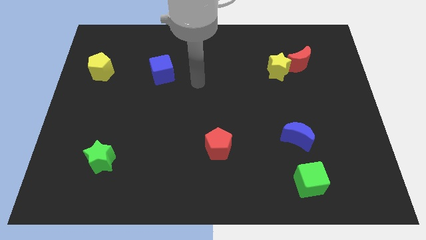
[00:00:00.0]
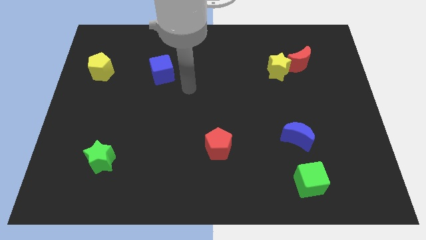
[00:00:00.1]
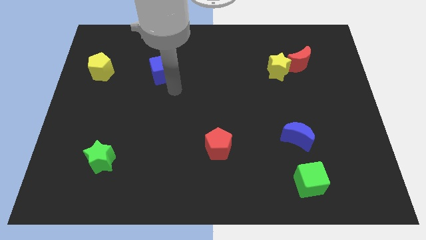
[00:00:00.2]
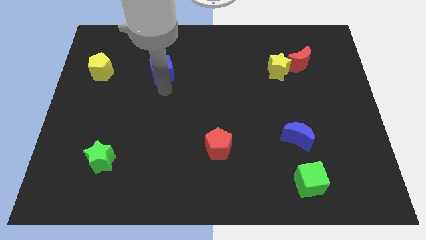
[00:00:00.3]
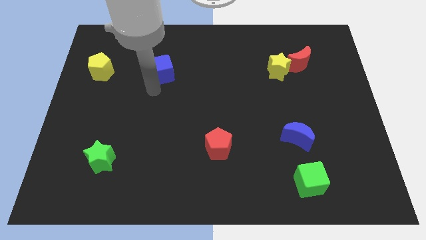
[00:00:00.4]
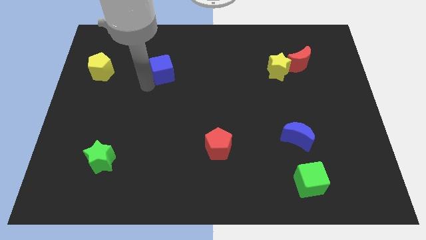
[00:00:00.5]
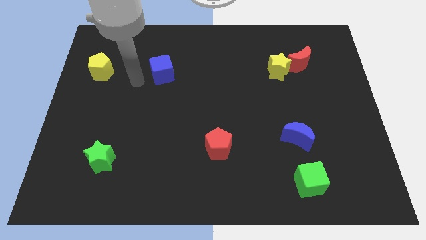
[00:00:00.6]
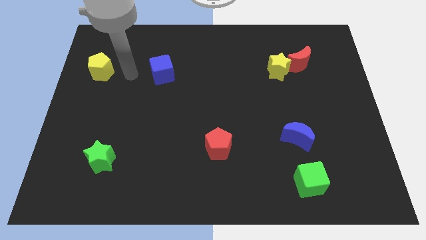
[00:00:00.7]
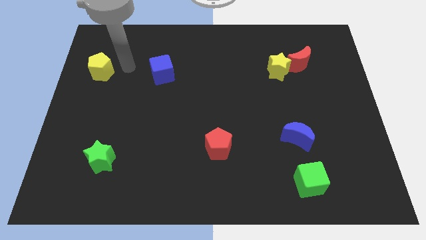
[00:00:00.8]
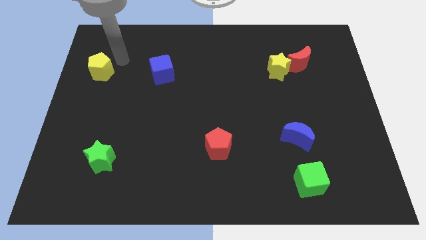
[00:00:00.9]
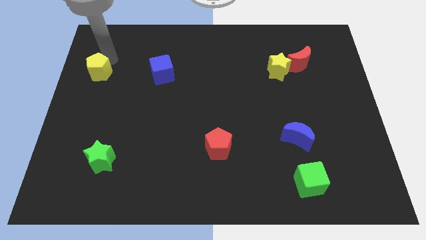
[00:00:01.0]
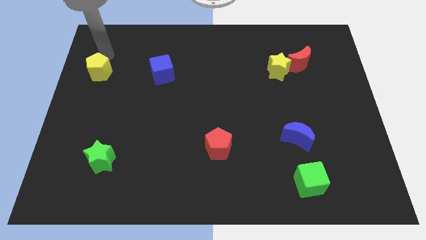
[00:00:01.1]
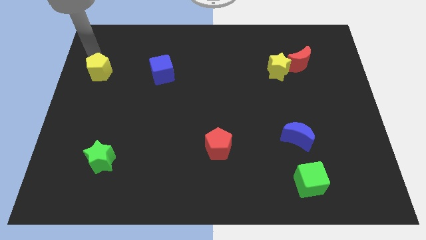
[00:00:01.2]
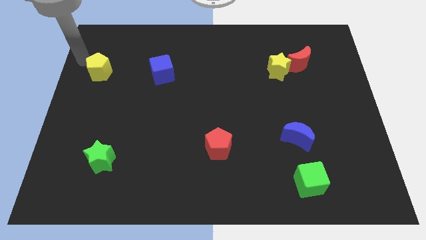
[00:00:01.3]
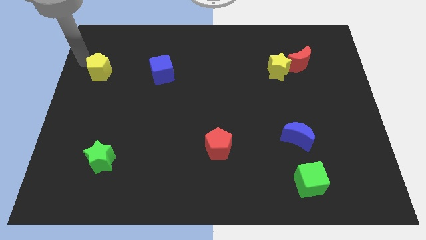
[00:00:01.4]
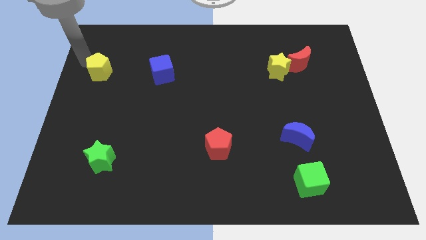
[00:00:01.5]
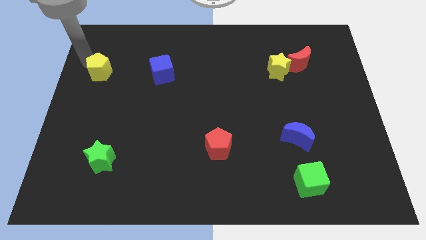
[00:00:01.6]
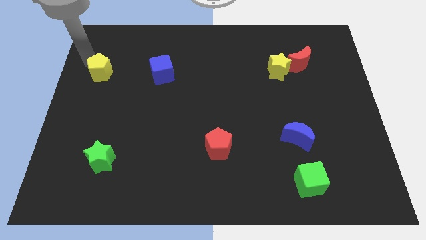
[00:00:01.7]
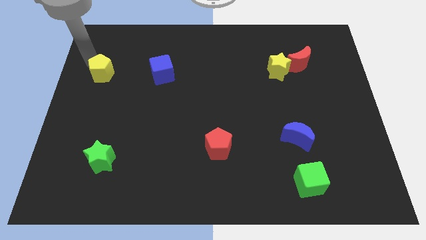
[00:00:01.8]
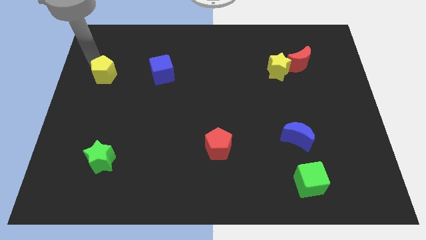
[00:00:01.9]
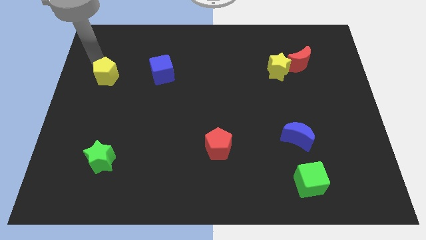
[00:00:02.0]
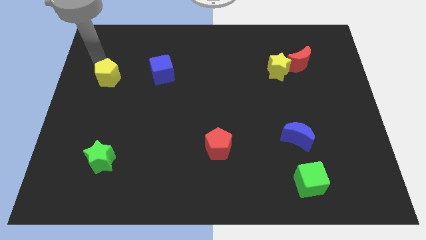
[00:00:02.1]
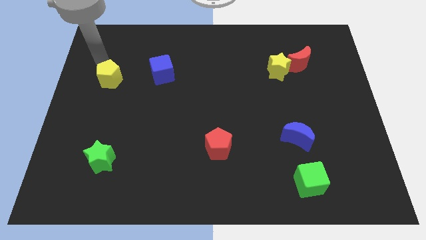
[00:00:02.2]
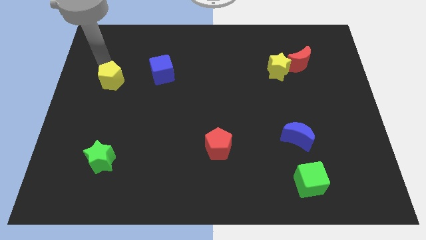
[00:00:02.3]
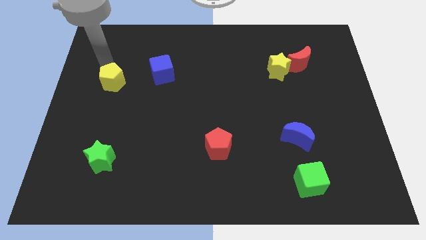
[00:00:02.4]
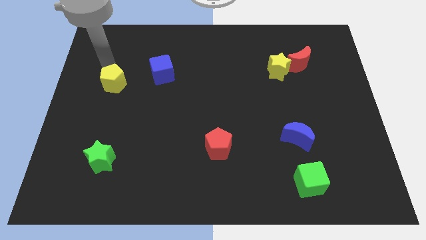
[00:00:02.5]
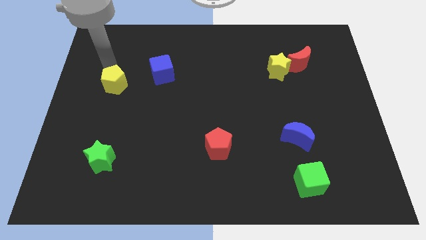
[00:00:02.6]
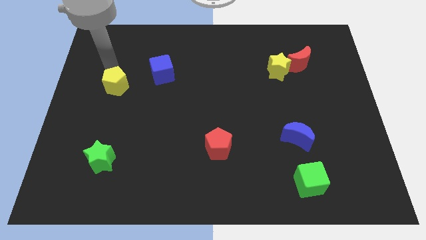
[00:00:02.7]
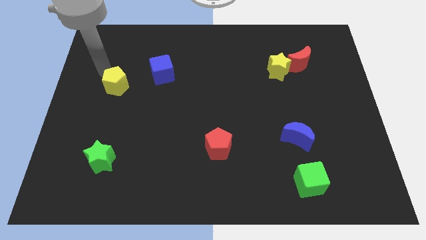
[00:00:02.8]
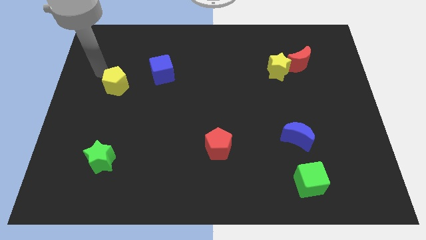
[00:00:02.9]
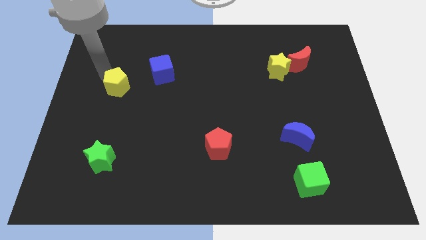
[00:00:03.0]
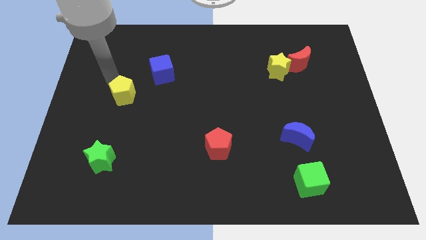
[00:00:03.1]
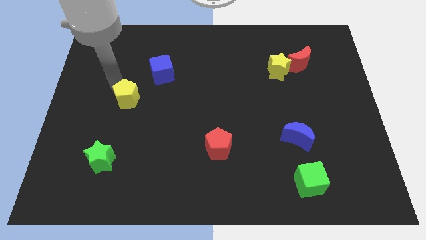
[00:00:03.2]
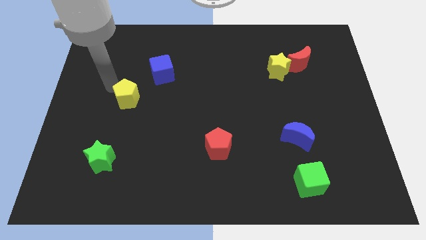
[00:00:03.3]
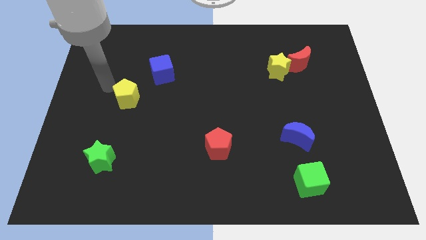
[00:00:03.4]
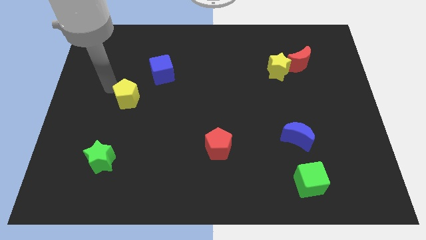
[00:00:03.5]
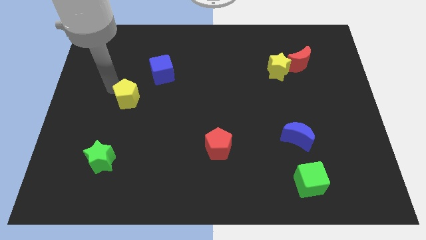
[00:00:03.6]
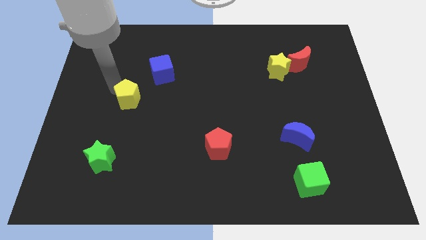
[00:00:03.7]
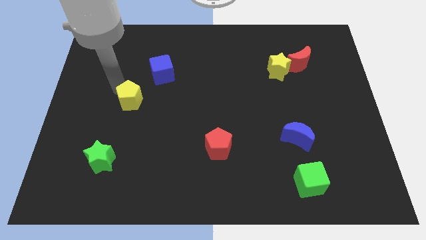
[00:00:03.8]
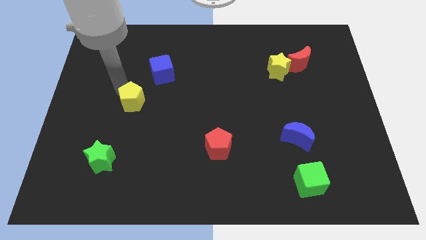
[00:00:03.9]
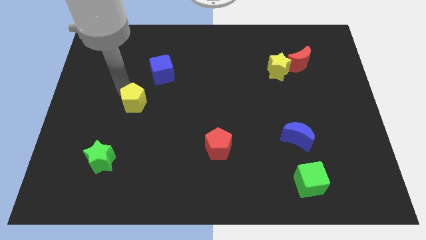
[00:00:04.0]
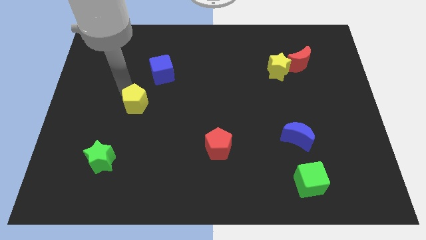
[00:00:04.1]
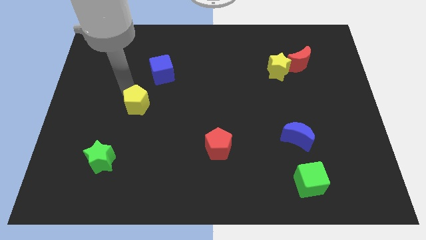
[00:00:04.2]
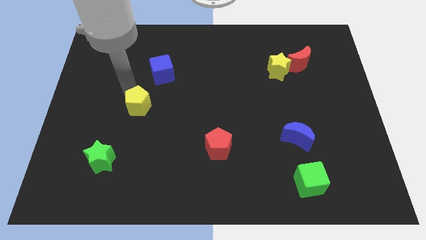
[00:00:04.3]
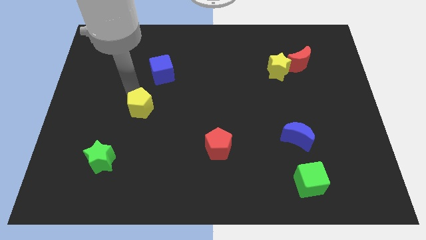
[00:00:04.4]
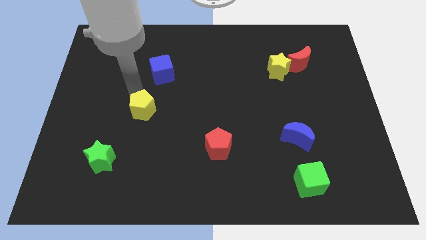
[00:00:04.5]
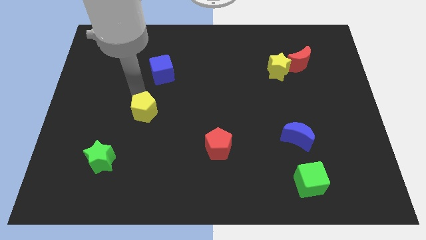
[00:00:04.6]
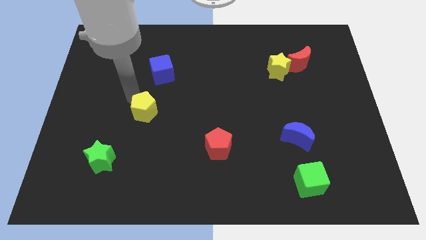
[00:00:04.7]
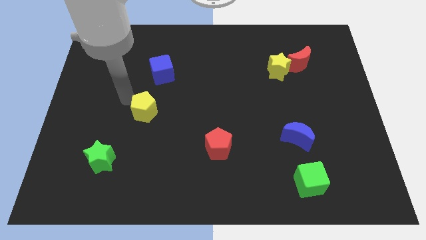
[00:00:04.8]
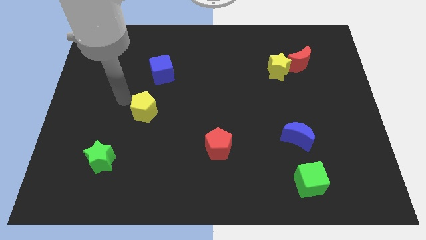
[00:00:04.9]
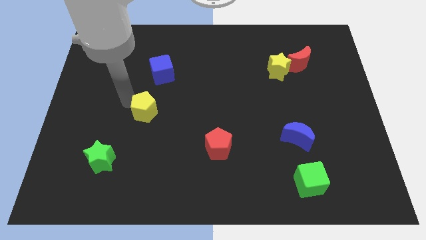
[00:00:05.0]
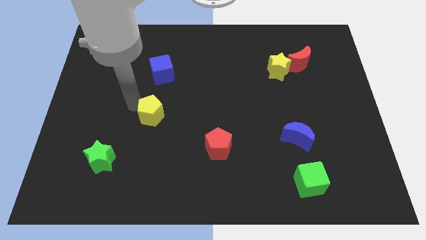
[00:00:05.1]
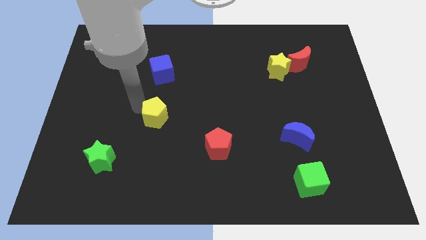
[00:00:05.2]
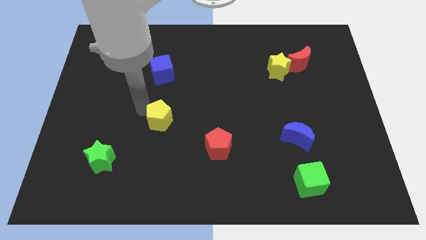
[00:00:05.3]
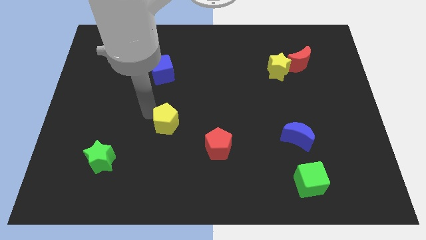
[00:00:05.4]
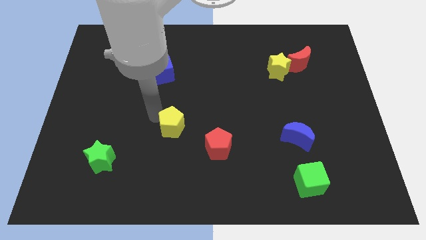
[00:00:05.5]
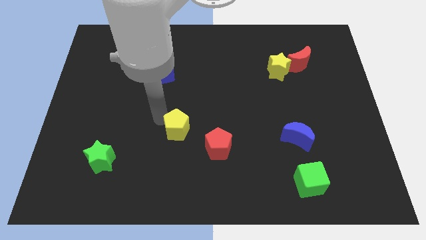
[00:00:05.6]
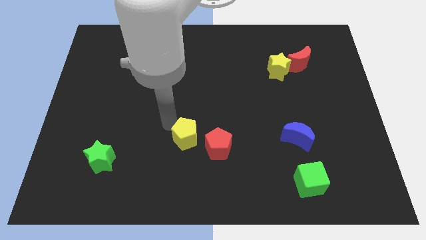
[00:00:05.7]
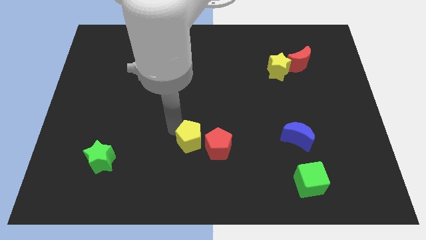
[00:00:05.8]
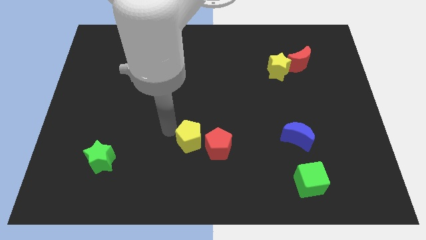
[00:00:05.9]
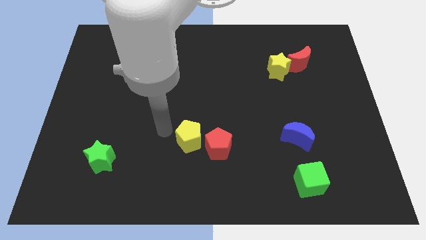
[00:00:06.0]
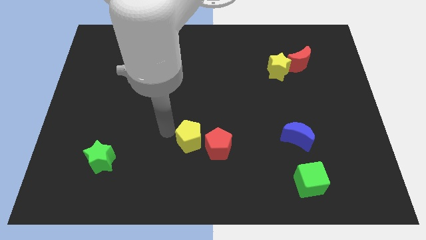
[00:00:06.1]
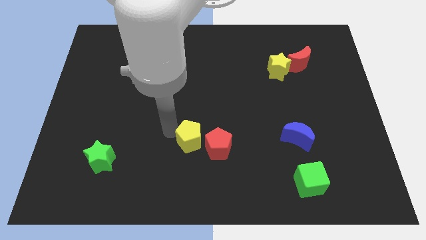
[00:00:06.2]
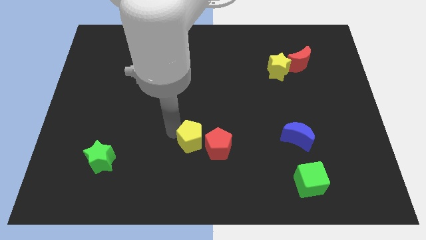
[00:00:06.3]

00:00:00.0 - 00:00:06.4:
push the yellow pentagon close to the red pentagon
